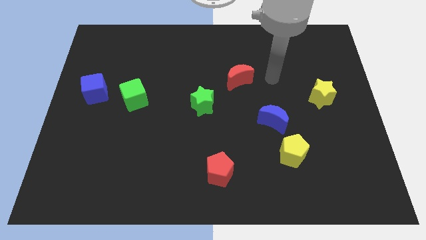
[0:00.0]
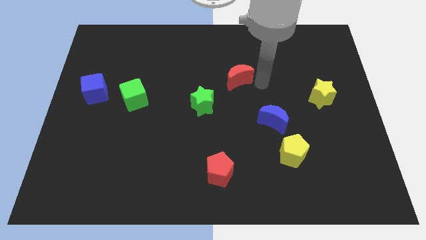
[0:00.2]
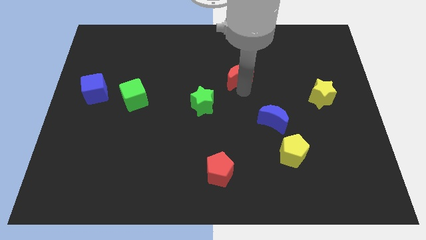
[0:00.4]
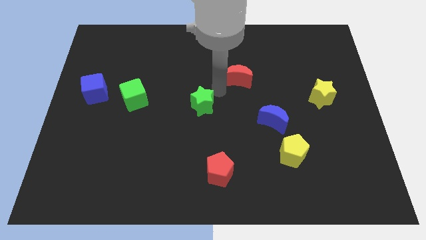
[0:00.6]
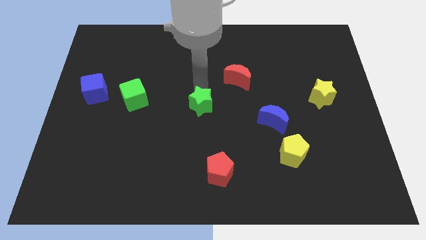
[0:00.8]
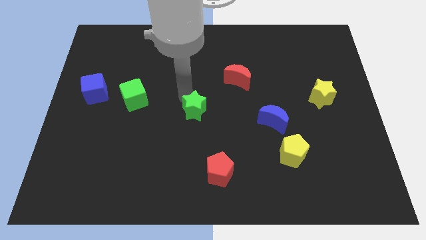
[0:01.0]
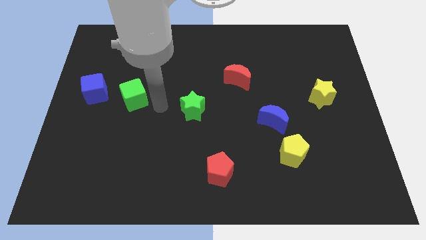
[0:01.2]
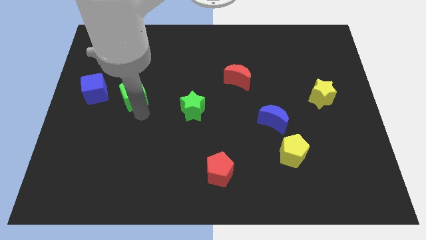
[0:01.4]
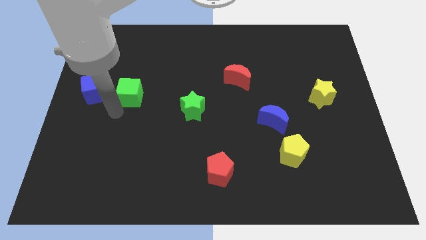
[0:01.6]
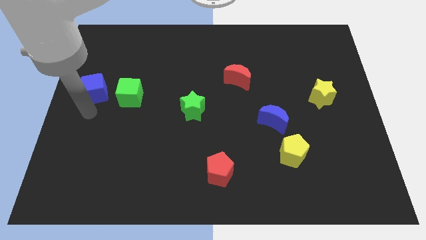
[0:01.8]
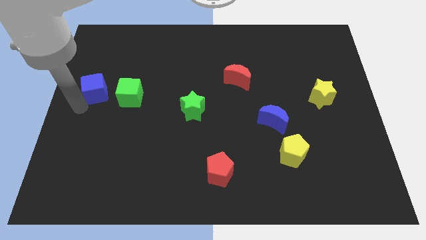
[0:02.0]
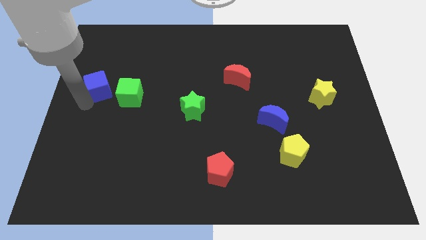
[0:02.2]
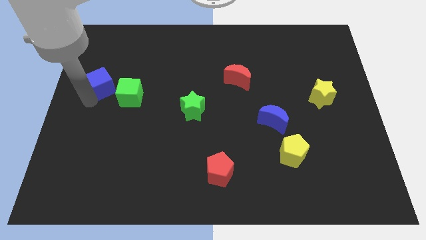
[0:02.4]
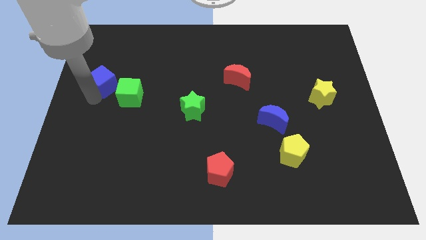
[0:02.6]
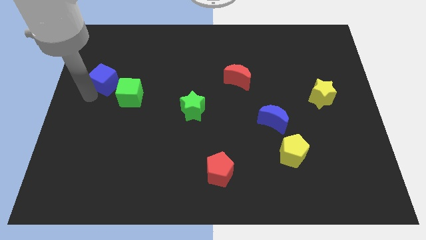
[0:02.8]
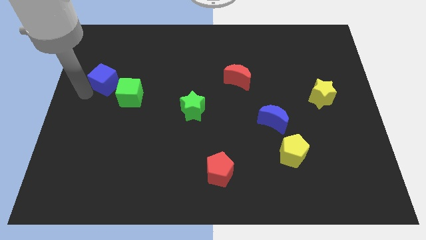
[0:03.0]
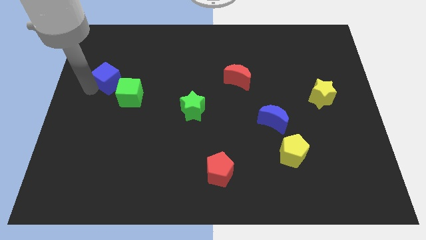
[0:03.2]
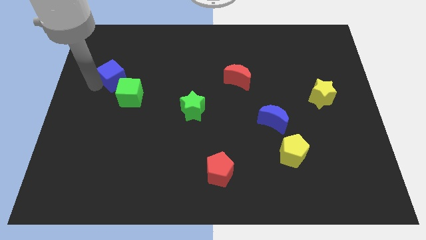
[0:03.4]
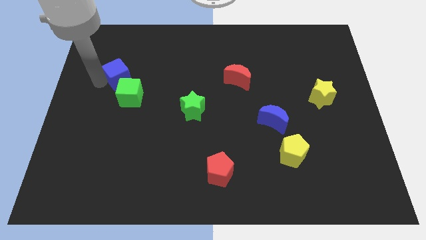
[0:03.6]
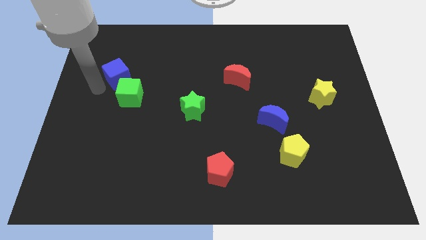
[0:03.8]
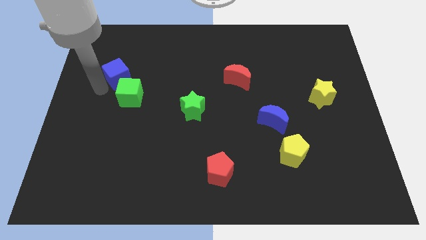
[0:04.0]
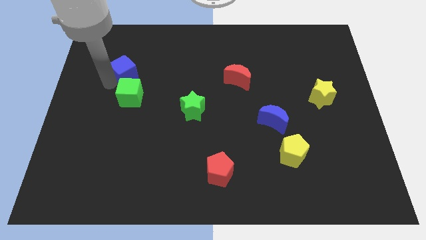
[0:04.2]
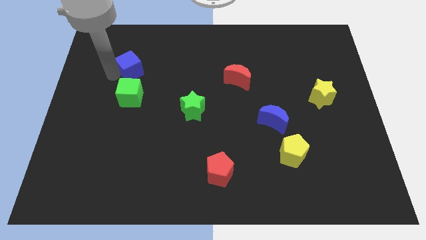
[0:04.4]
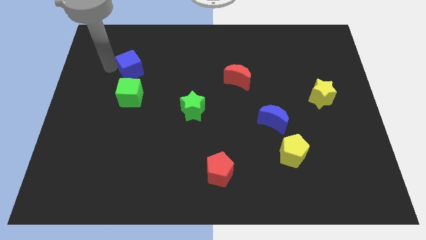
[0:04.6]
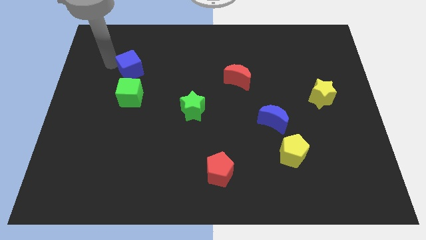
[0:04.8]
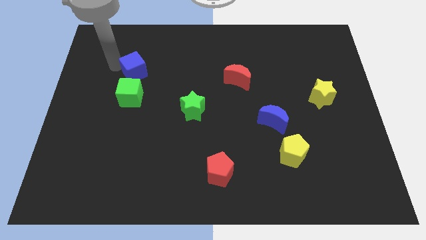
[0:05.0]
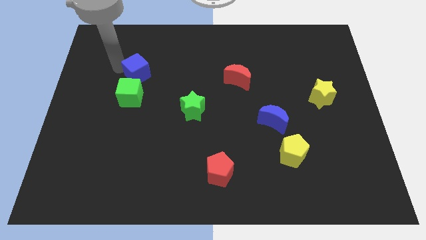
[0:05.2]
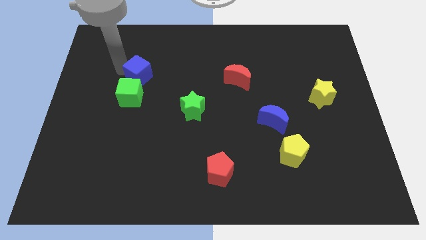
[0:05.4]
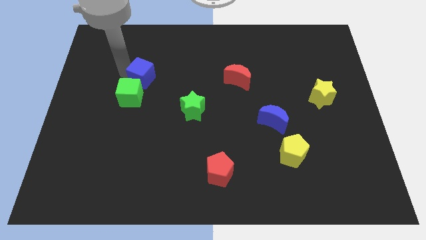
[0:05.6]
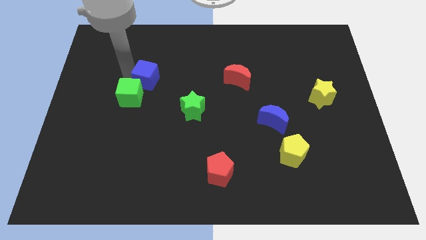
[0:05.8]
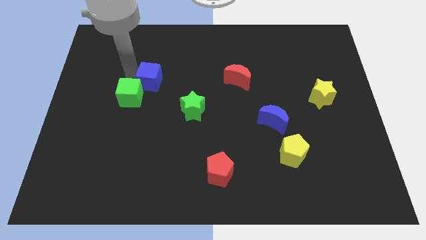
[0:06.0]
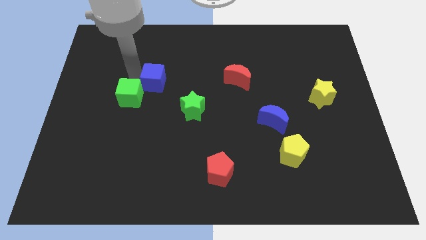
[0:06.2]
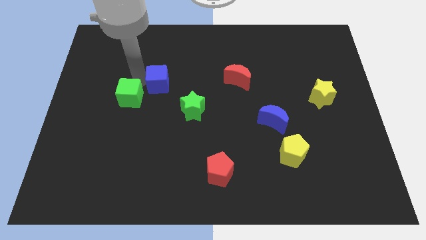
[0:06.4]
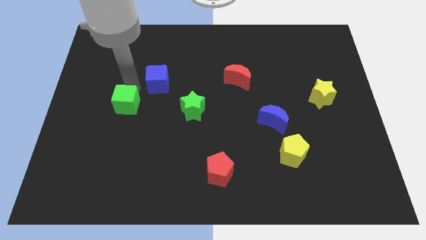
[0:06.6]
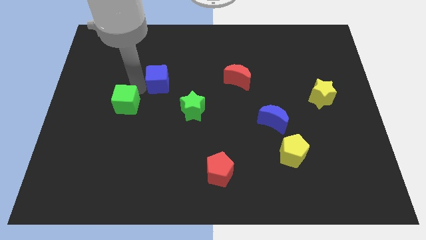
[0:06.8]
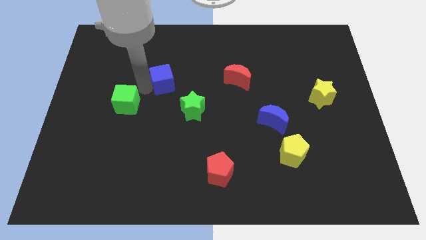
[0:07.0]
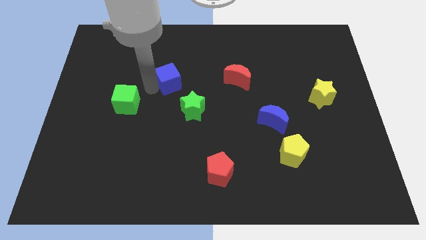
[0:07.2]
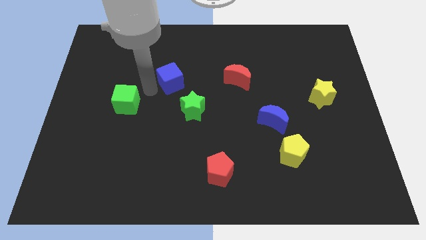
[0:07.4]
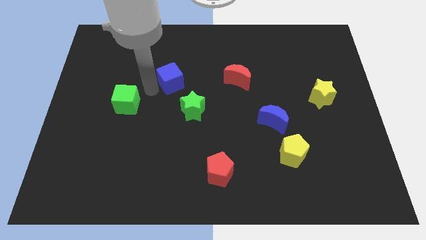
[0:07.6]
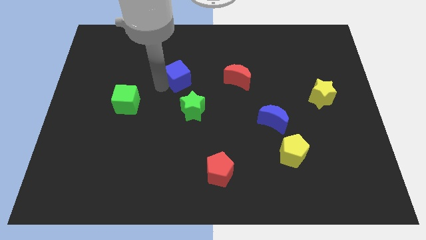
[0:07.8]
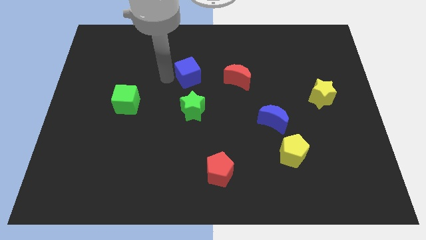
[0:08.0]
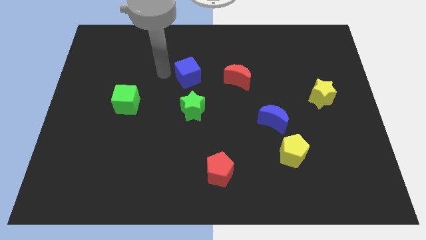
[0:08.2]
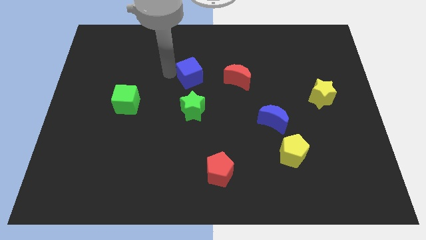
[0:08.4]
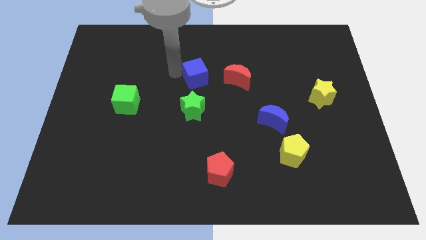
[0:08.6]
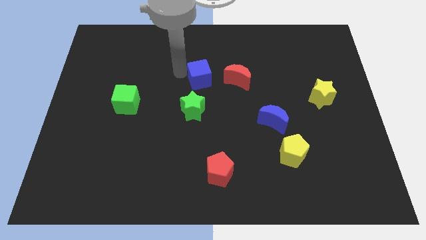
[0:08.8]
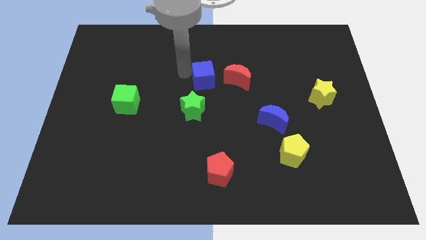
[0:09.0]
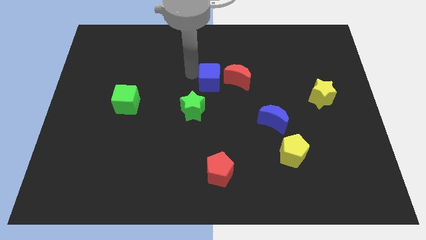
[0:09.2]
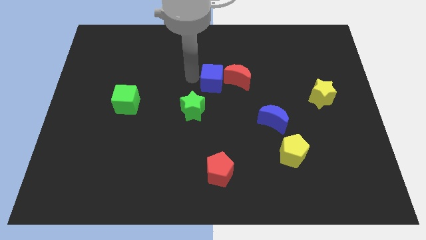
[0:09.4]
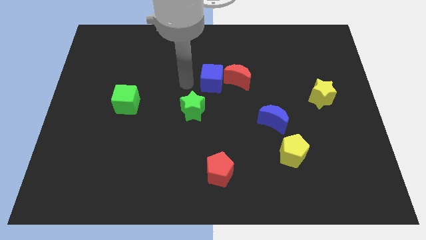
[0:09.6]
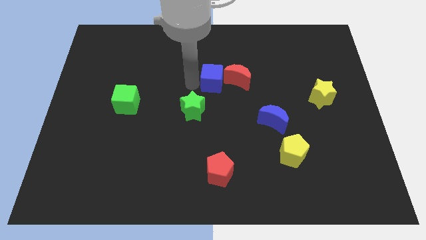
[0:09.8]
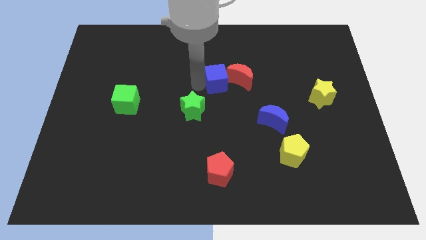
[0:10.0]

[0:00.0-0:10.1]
slide the blue cube towards the red moon

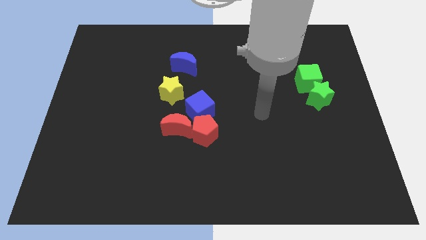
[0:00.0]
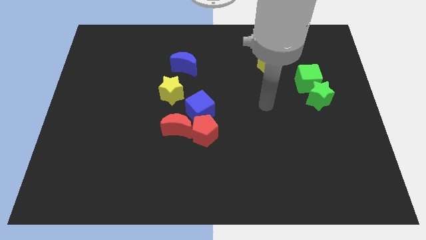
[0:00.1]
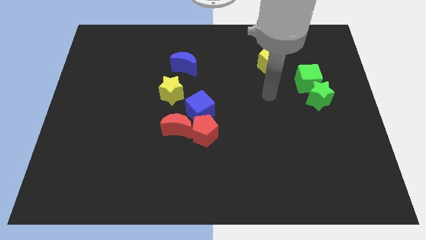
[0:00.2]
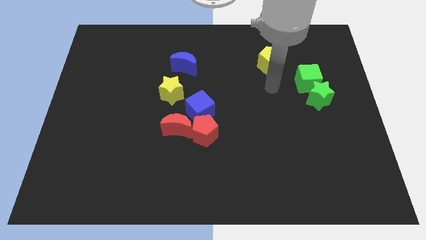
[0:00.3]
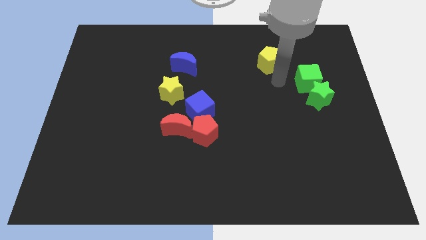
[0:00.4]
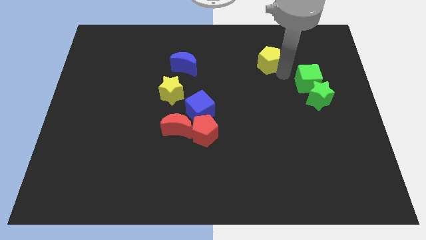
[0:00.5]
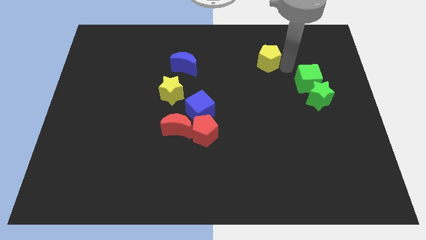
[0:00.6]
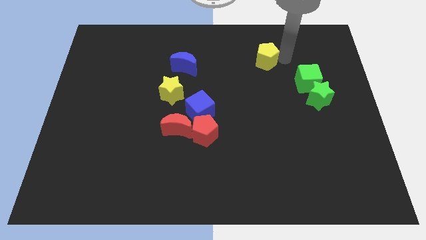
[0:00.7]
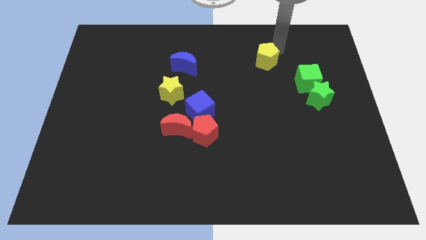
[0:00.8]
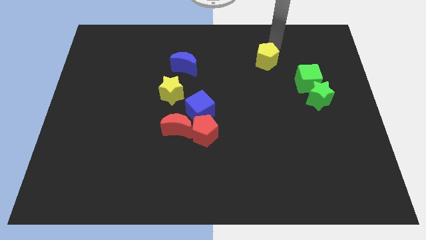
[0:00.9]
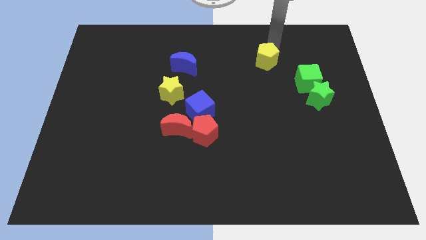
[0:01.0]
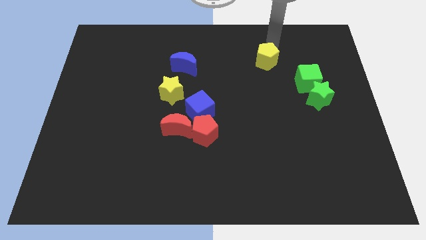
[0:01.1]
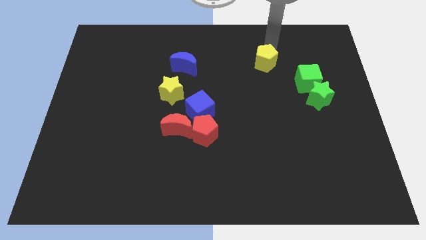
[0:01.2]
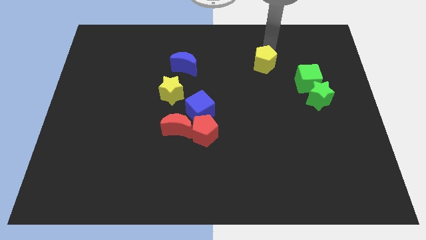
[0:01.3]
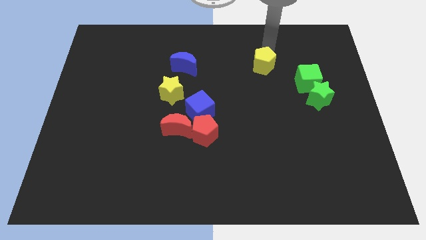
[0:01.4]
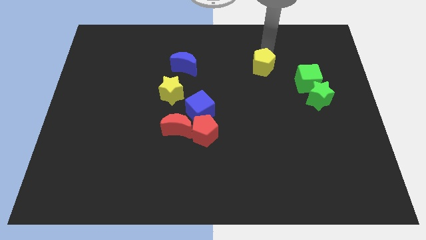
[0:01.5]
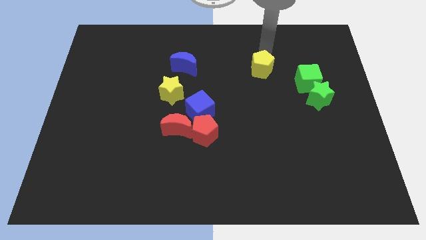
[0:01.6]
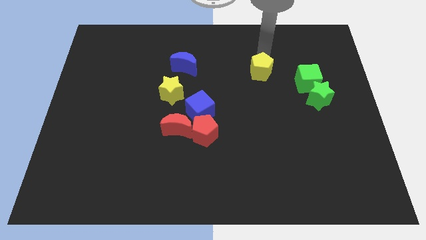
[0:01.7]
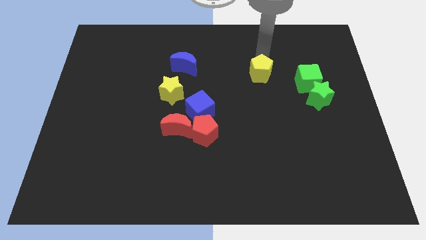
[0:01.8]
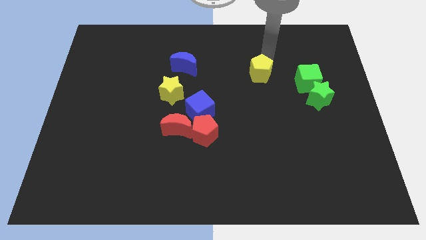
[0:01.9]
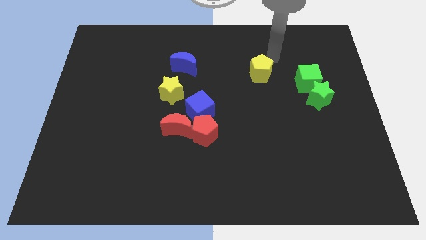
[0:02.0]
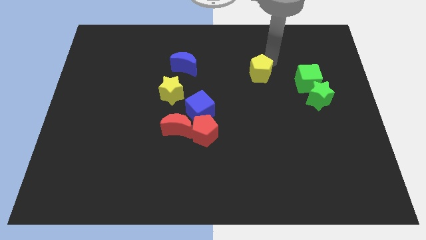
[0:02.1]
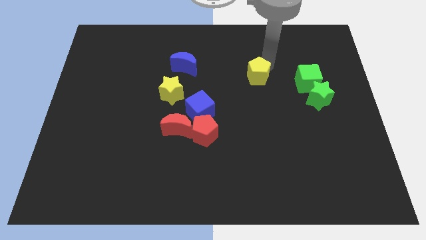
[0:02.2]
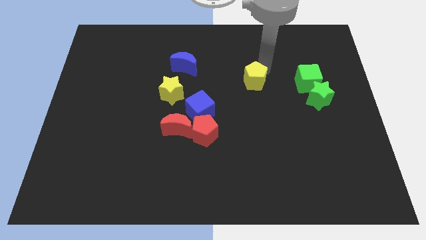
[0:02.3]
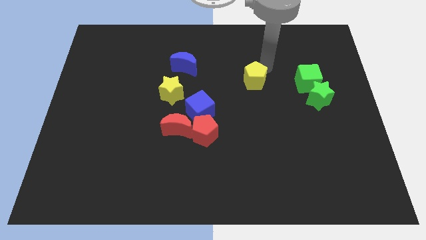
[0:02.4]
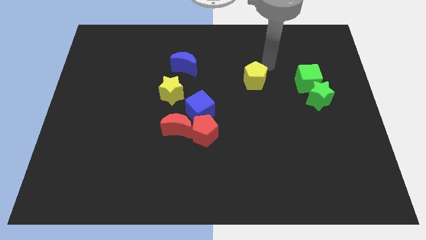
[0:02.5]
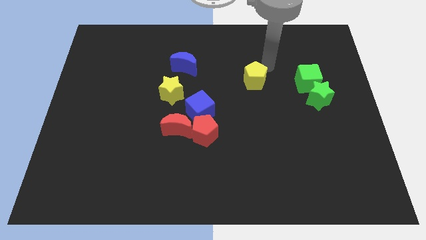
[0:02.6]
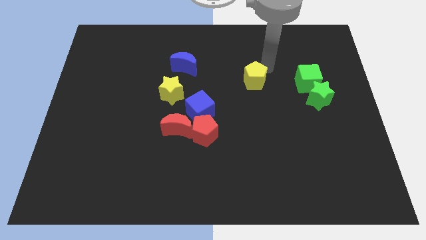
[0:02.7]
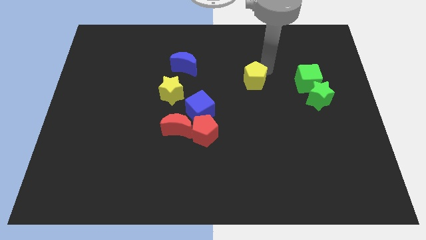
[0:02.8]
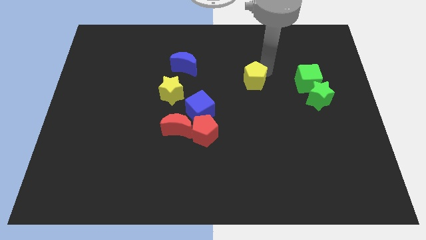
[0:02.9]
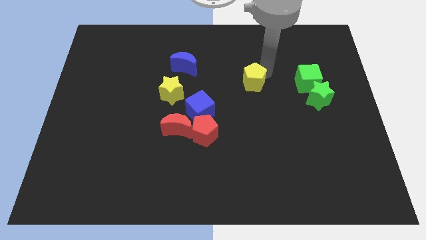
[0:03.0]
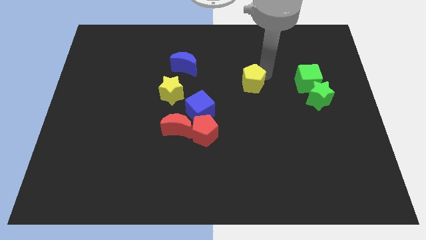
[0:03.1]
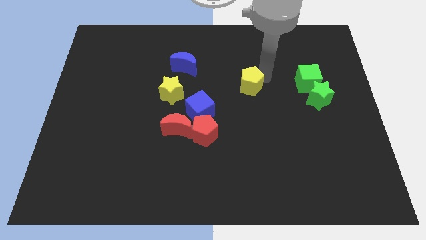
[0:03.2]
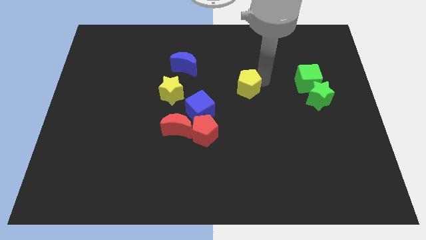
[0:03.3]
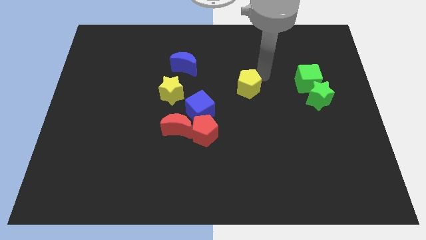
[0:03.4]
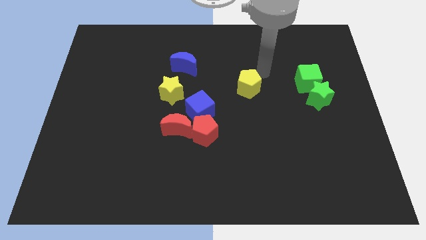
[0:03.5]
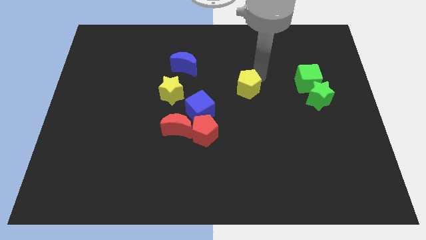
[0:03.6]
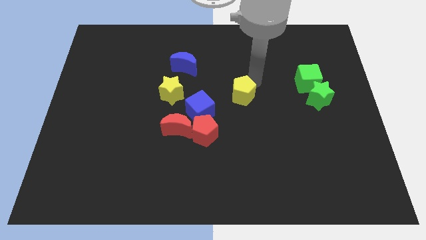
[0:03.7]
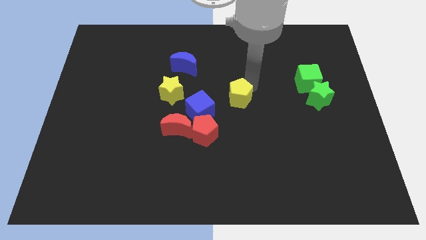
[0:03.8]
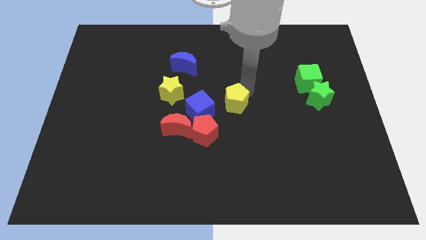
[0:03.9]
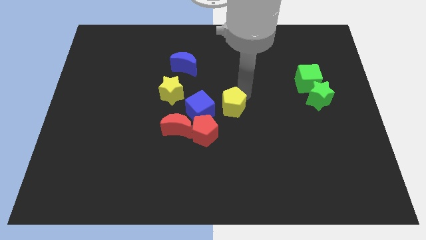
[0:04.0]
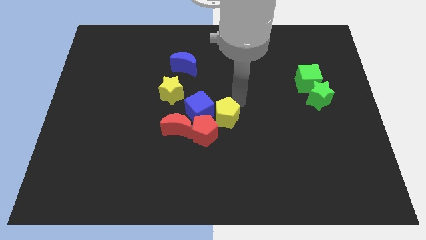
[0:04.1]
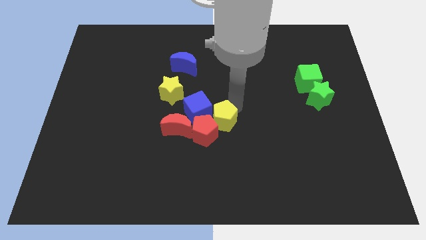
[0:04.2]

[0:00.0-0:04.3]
slide the yellow pentagon towards the red pentagon
